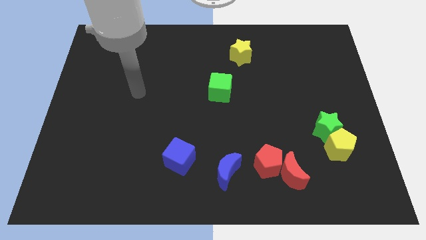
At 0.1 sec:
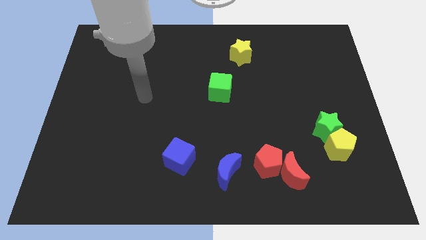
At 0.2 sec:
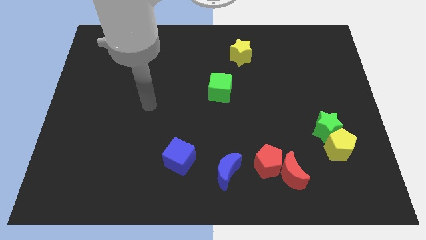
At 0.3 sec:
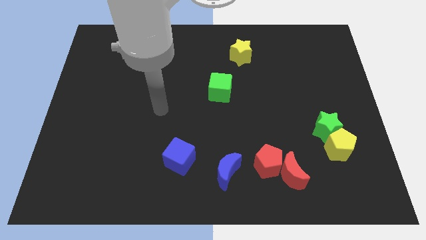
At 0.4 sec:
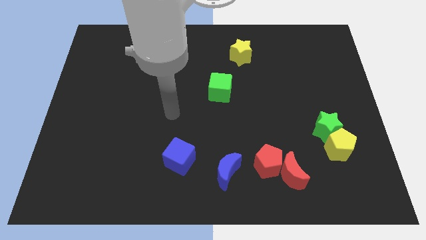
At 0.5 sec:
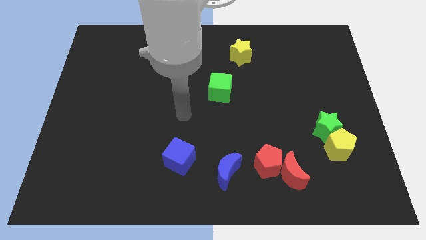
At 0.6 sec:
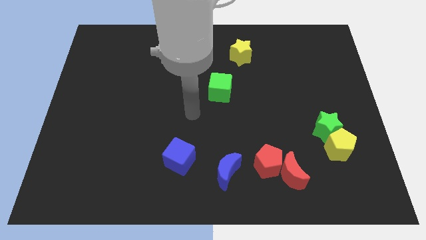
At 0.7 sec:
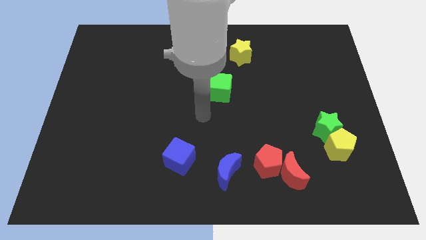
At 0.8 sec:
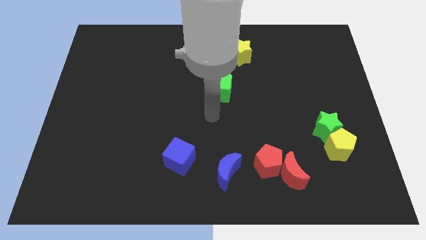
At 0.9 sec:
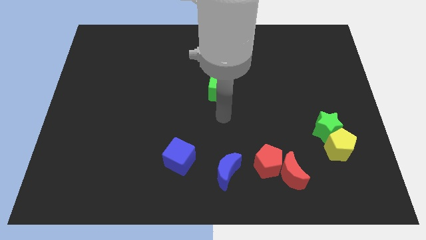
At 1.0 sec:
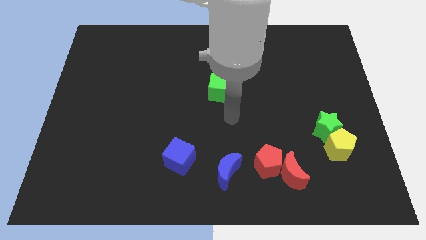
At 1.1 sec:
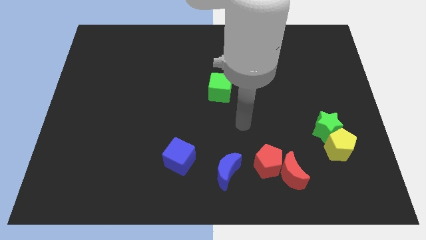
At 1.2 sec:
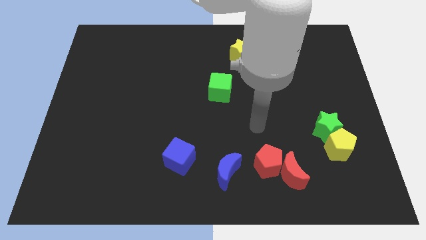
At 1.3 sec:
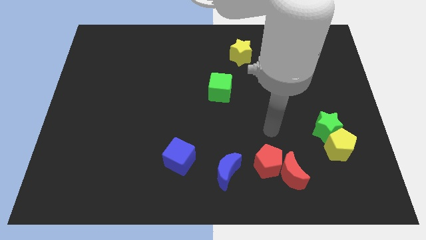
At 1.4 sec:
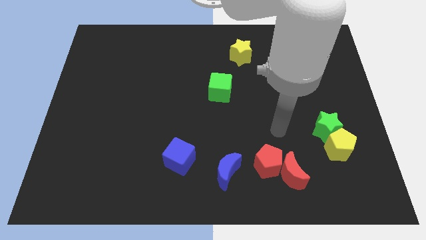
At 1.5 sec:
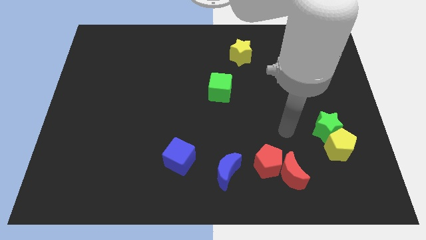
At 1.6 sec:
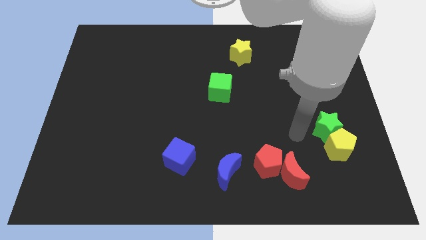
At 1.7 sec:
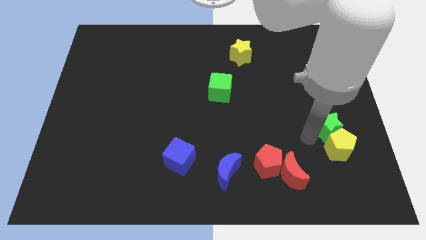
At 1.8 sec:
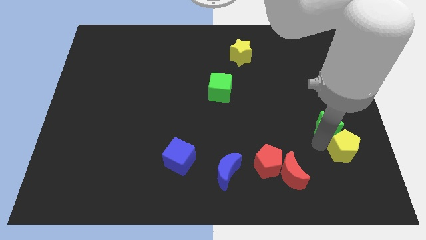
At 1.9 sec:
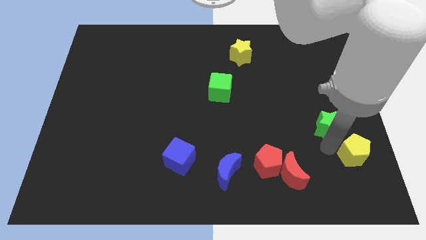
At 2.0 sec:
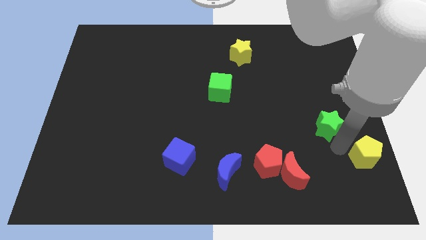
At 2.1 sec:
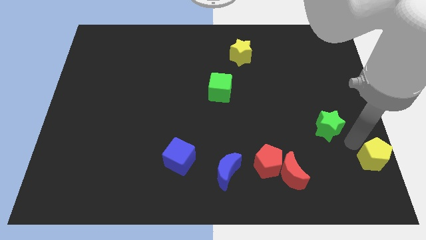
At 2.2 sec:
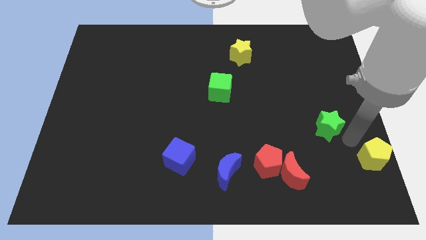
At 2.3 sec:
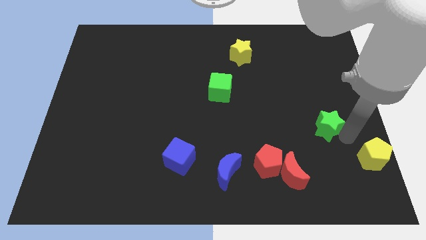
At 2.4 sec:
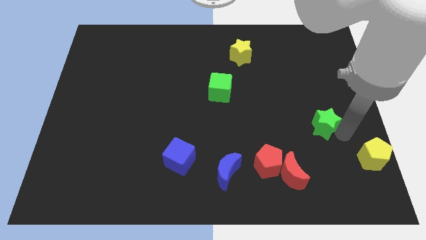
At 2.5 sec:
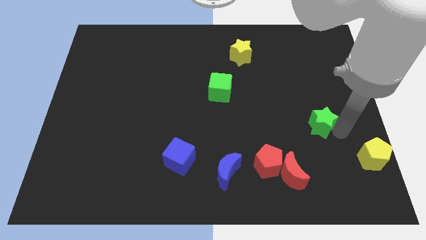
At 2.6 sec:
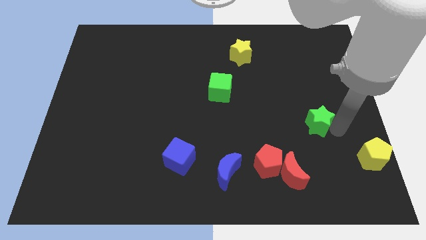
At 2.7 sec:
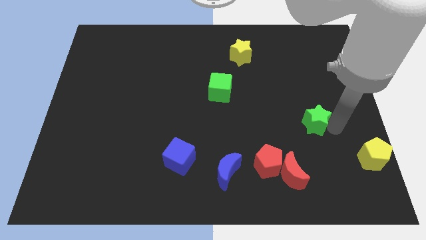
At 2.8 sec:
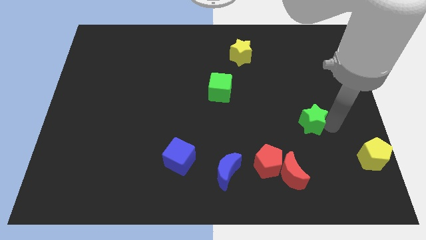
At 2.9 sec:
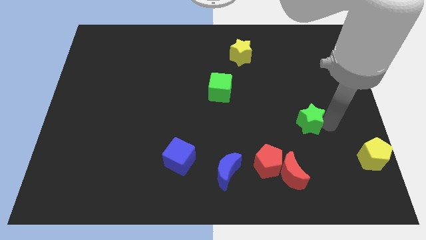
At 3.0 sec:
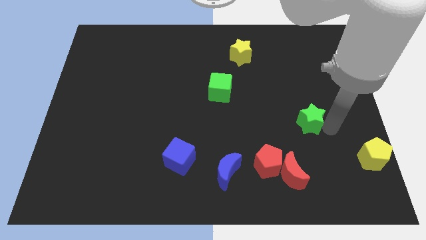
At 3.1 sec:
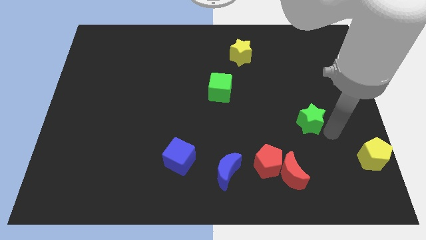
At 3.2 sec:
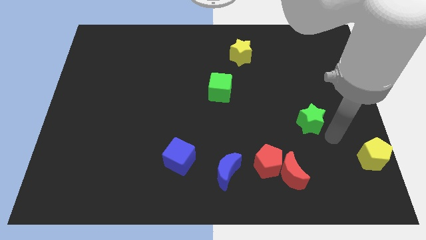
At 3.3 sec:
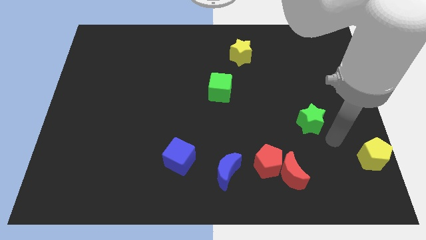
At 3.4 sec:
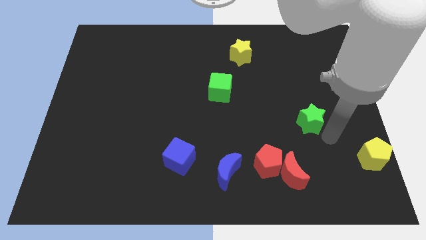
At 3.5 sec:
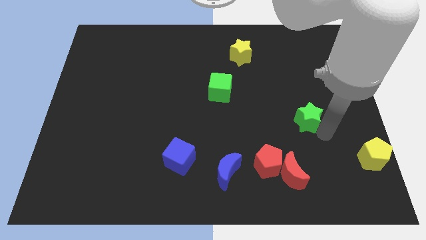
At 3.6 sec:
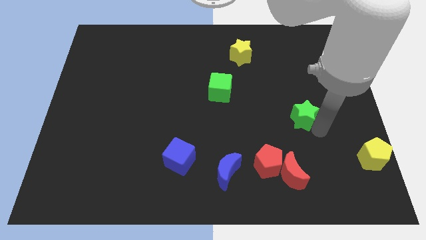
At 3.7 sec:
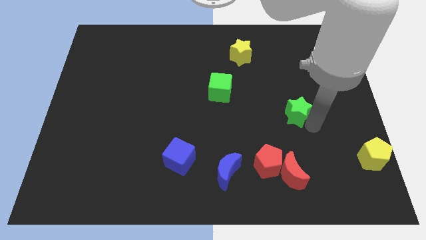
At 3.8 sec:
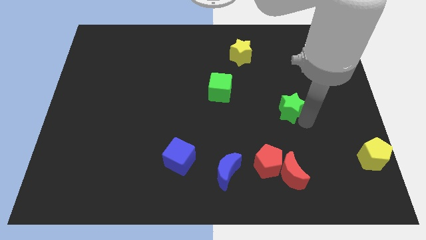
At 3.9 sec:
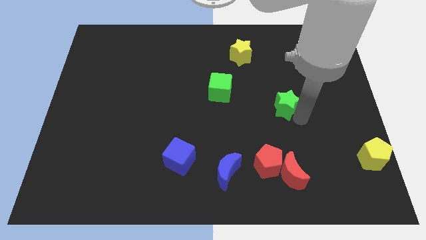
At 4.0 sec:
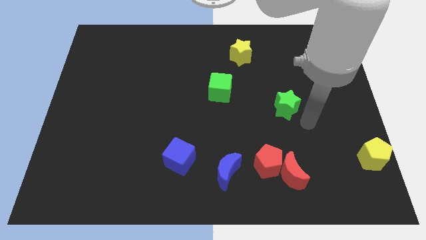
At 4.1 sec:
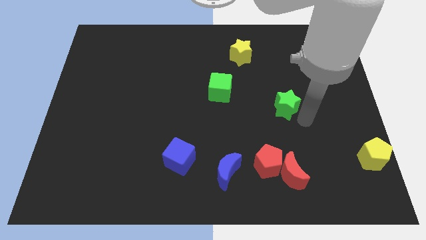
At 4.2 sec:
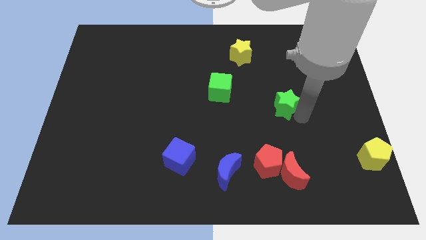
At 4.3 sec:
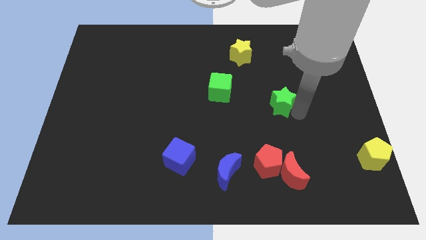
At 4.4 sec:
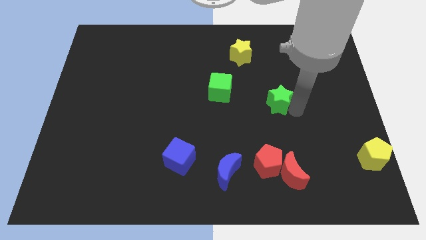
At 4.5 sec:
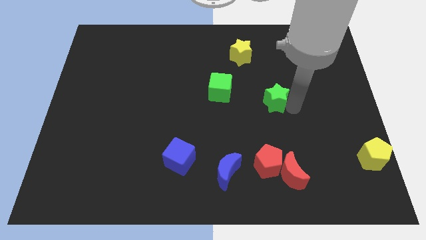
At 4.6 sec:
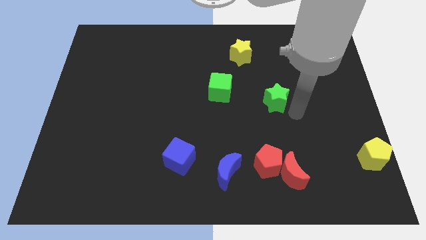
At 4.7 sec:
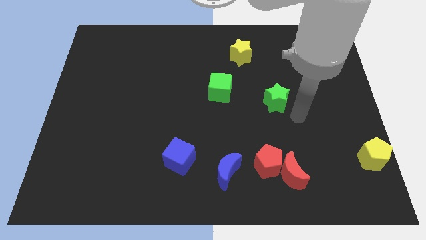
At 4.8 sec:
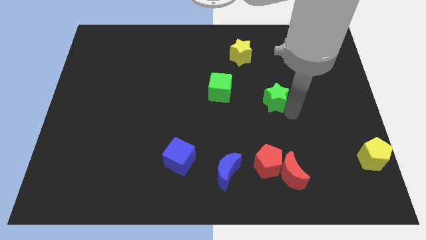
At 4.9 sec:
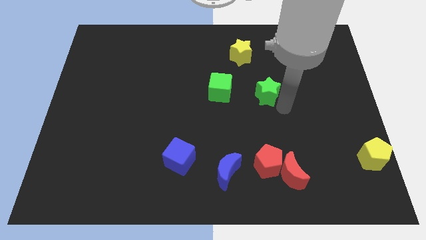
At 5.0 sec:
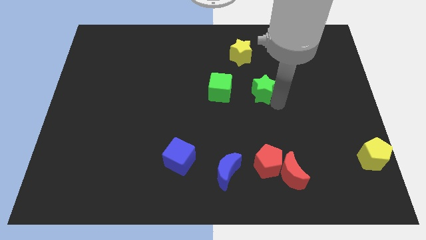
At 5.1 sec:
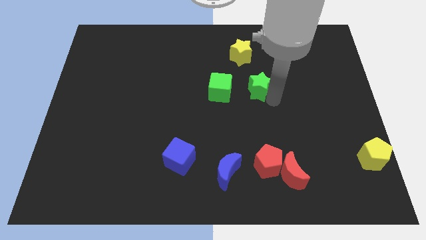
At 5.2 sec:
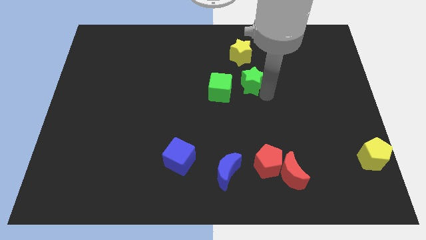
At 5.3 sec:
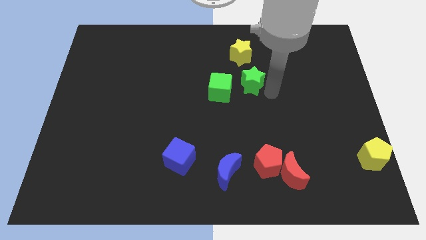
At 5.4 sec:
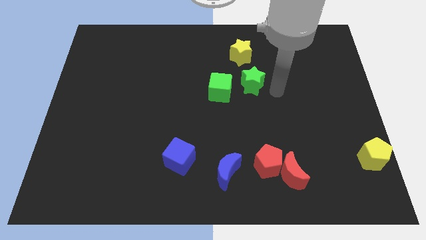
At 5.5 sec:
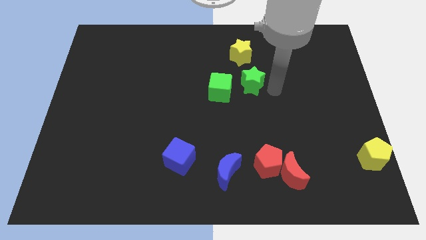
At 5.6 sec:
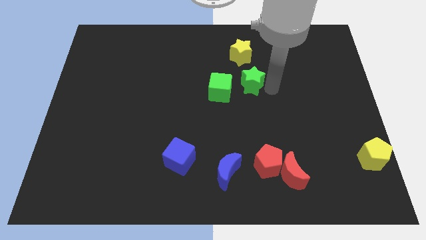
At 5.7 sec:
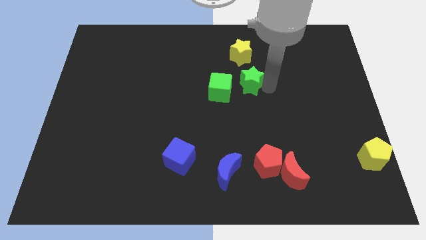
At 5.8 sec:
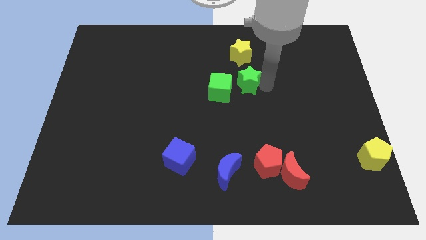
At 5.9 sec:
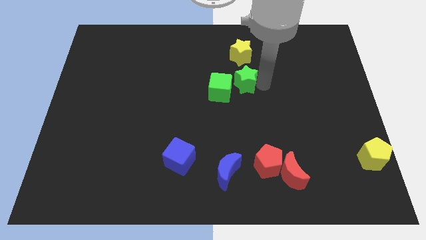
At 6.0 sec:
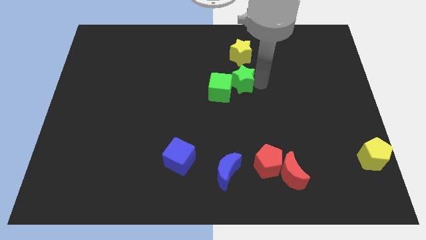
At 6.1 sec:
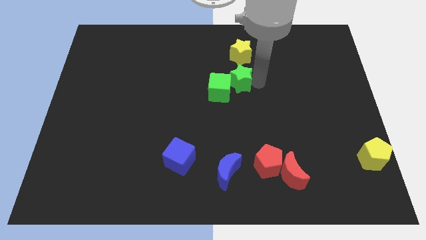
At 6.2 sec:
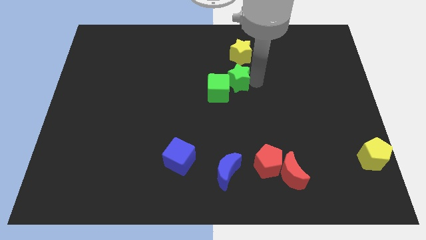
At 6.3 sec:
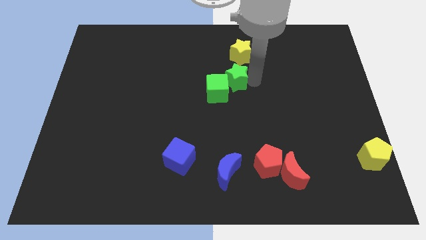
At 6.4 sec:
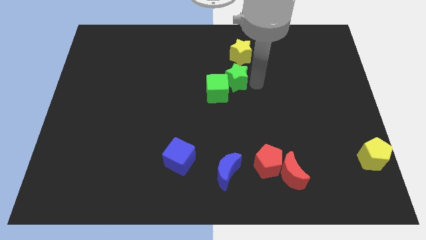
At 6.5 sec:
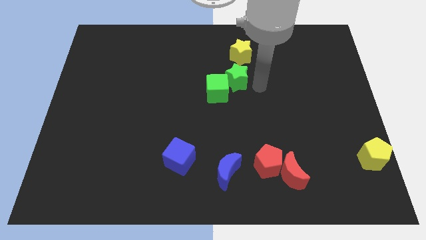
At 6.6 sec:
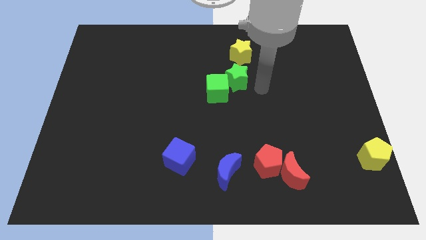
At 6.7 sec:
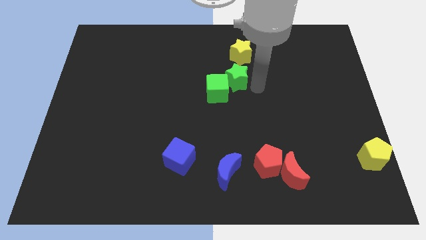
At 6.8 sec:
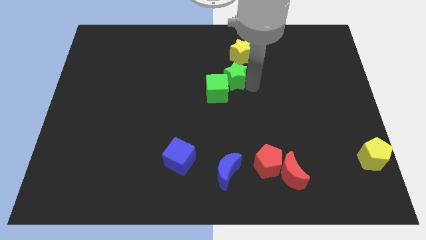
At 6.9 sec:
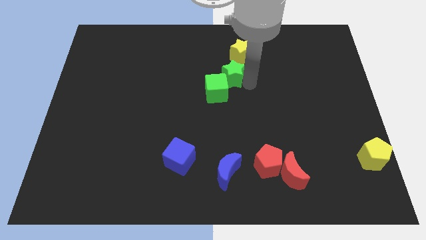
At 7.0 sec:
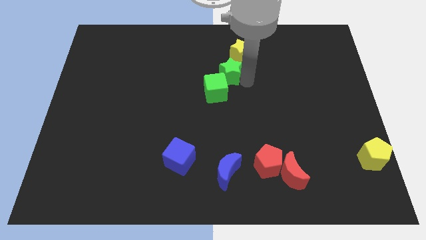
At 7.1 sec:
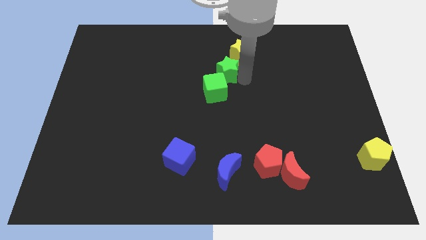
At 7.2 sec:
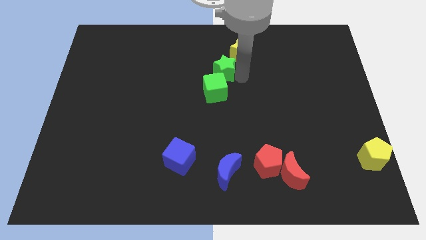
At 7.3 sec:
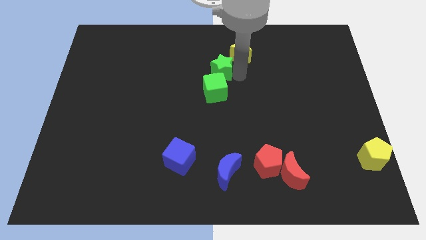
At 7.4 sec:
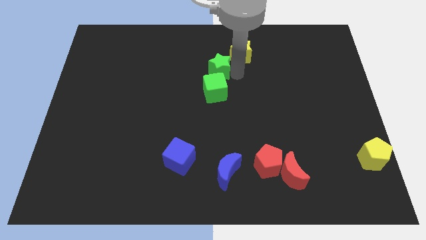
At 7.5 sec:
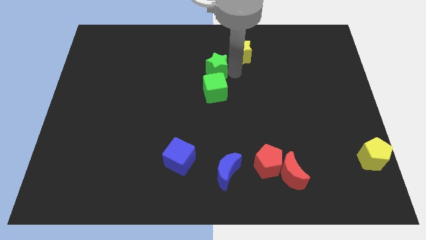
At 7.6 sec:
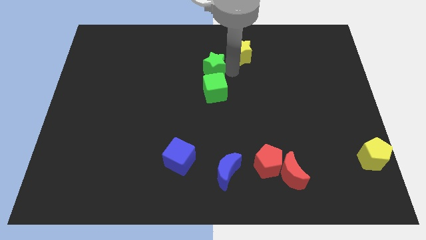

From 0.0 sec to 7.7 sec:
move the green star to the top left of the green cube

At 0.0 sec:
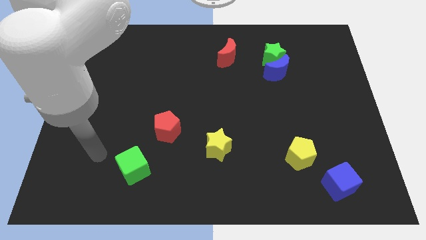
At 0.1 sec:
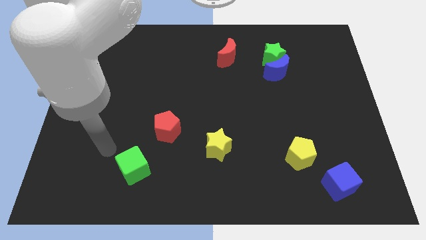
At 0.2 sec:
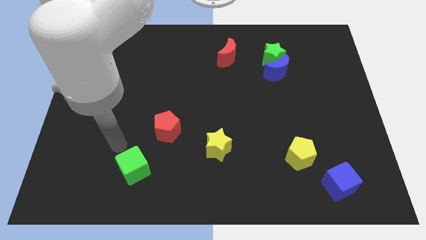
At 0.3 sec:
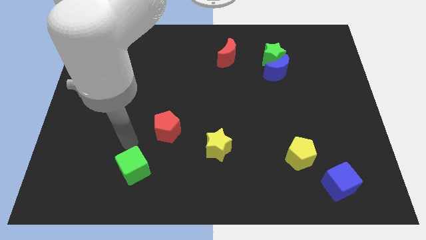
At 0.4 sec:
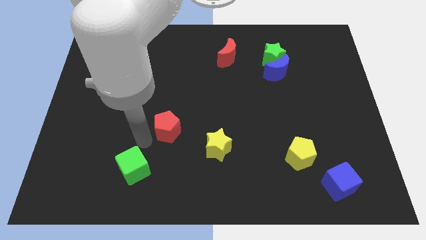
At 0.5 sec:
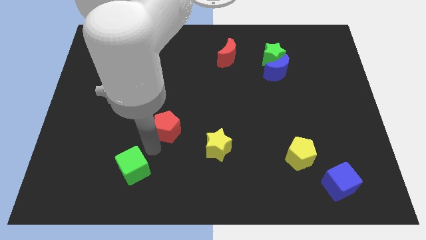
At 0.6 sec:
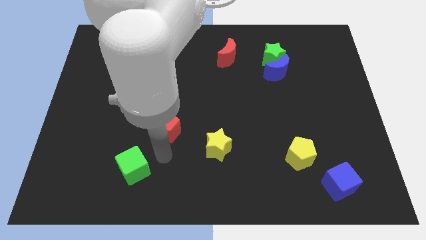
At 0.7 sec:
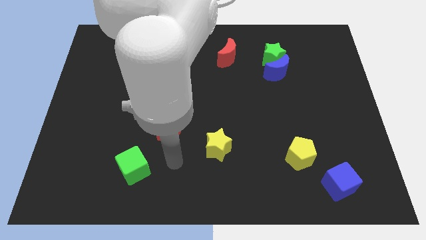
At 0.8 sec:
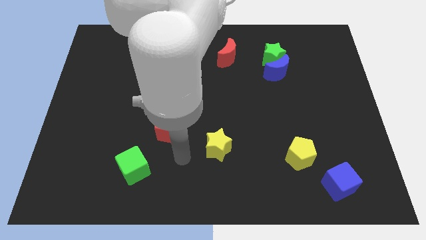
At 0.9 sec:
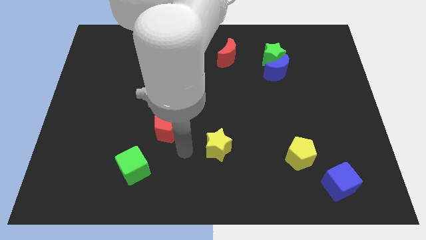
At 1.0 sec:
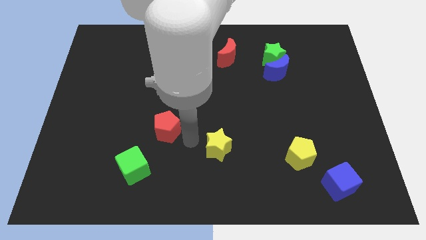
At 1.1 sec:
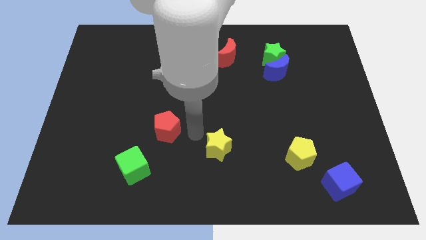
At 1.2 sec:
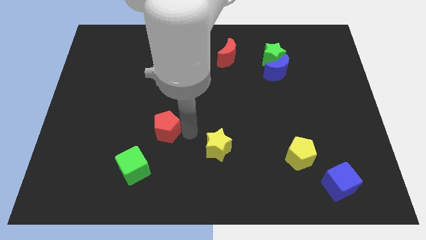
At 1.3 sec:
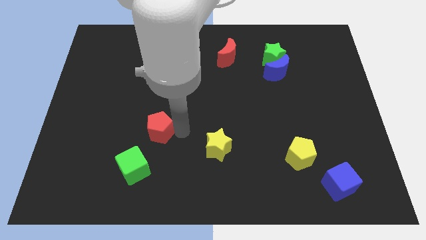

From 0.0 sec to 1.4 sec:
push the red pentagon to the top side of the green cube
